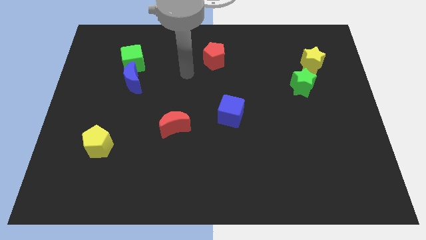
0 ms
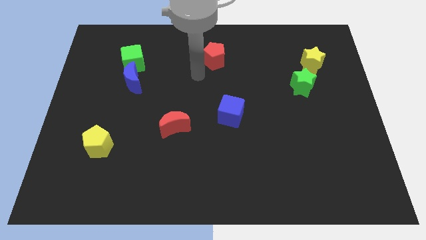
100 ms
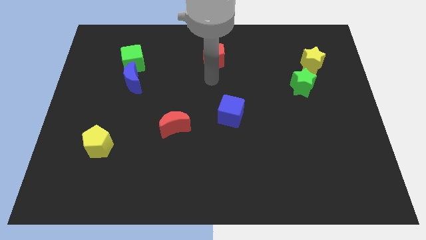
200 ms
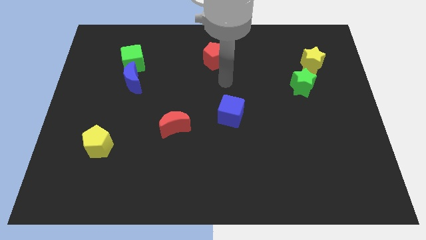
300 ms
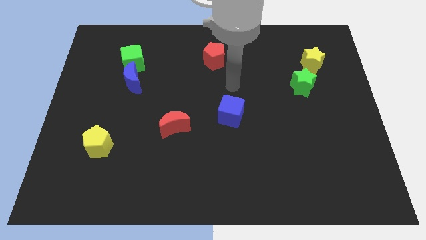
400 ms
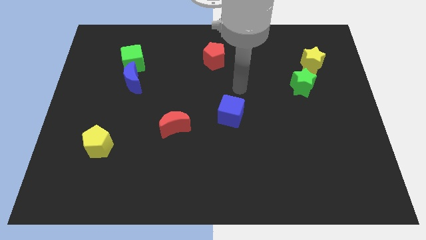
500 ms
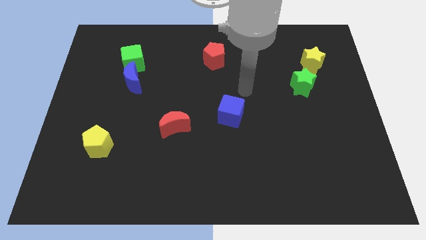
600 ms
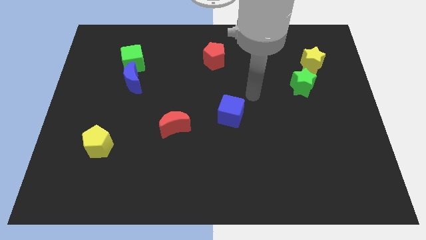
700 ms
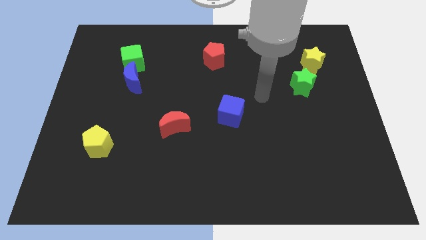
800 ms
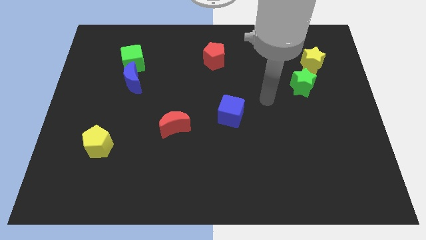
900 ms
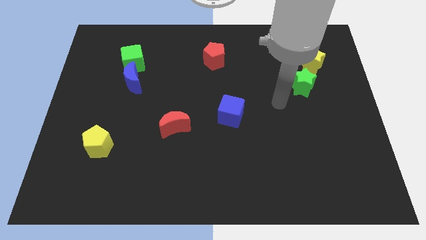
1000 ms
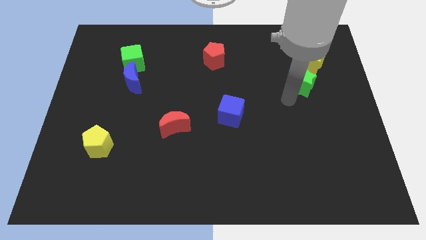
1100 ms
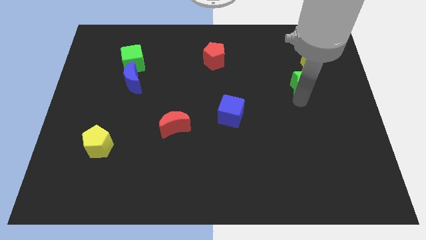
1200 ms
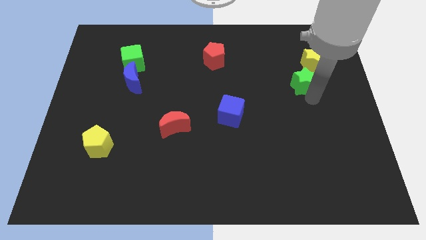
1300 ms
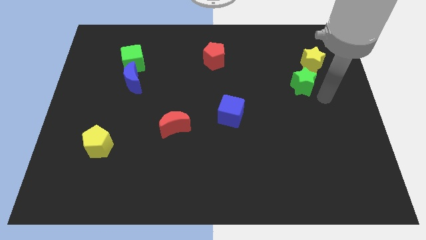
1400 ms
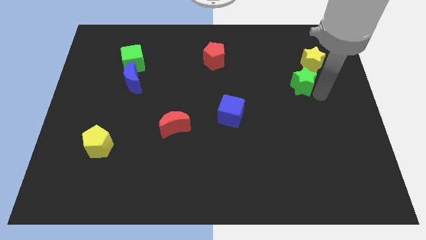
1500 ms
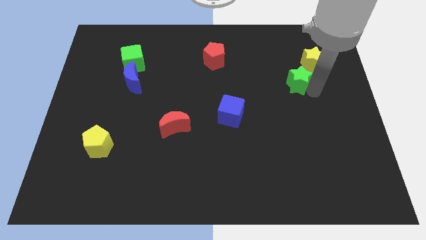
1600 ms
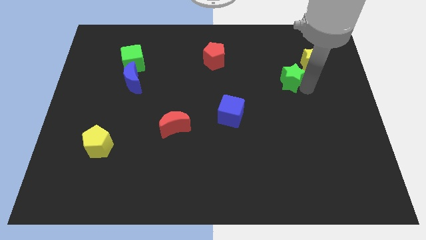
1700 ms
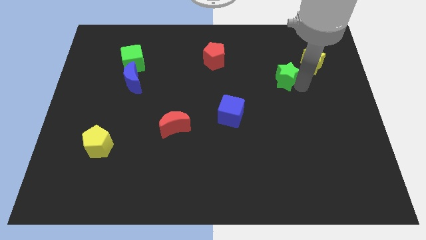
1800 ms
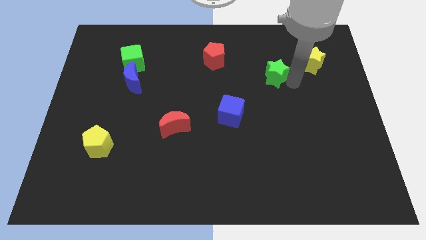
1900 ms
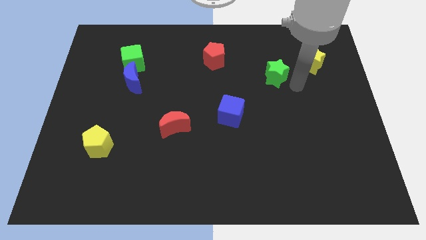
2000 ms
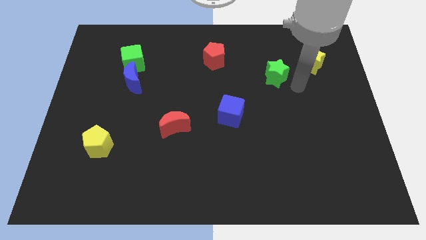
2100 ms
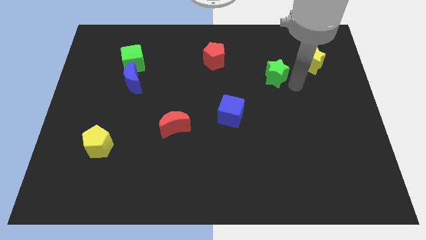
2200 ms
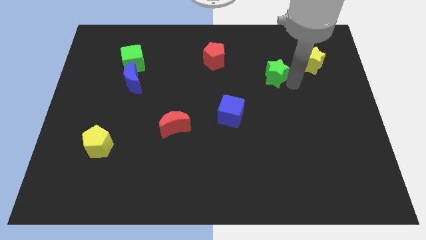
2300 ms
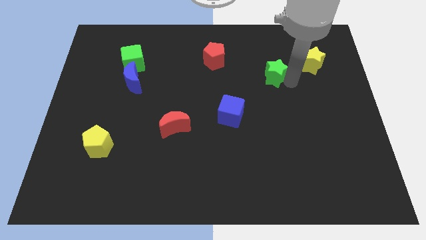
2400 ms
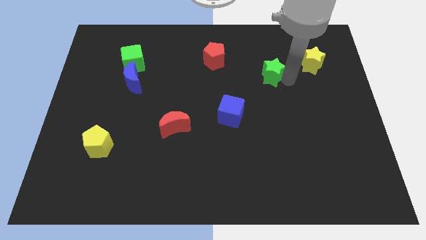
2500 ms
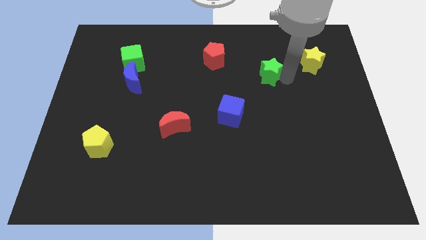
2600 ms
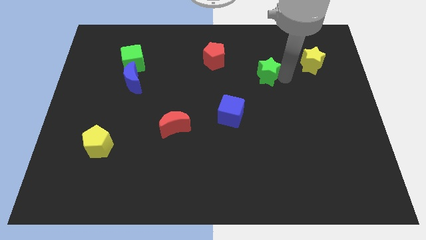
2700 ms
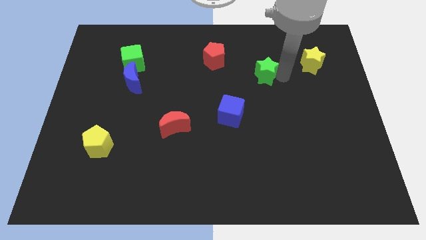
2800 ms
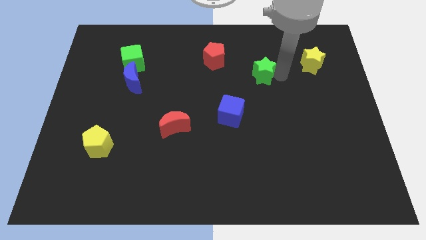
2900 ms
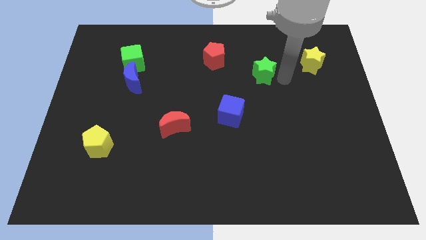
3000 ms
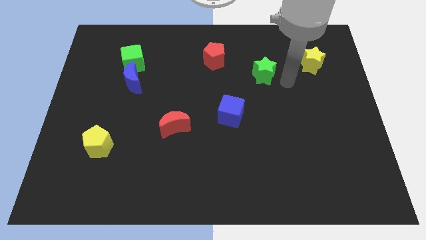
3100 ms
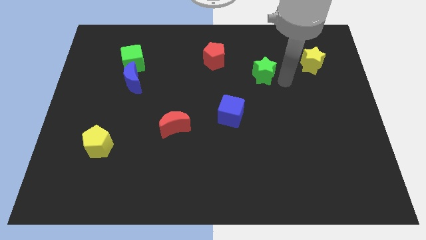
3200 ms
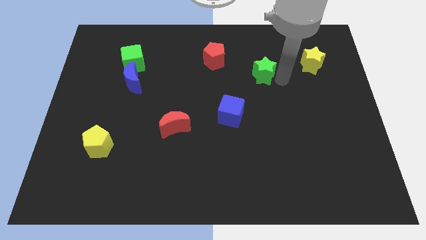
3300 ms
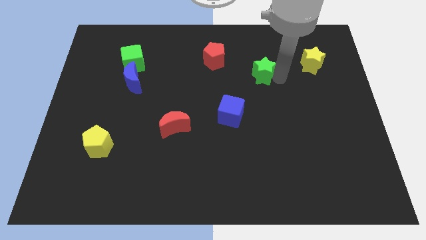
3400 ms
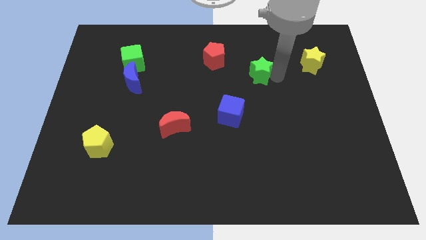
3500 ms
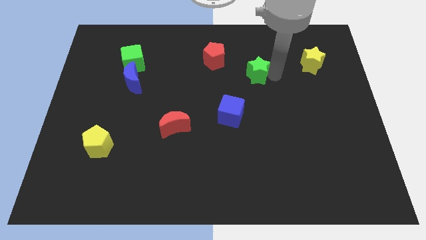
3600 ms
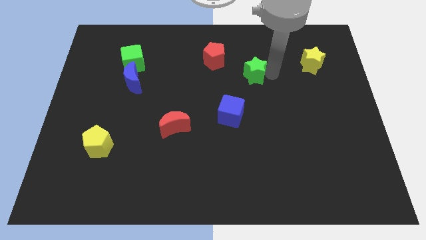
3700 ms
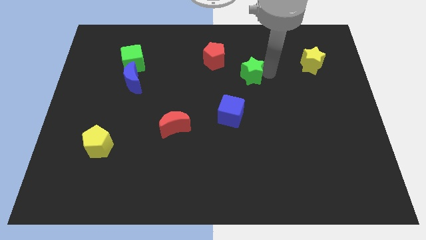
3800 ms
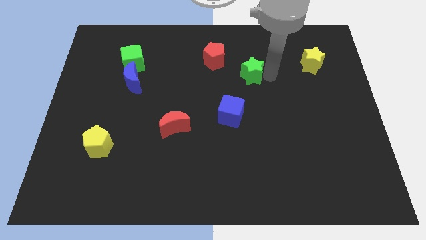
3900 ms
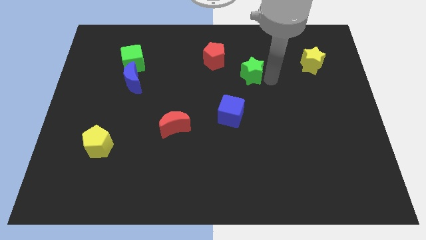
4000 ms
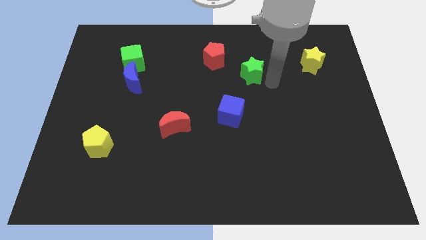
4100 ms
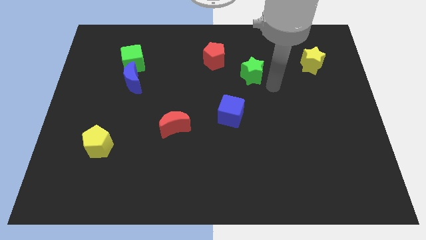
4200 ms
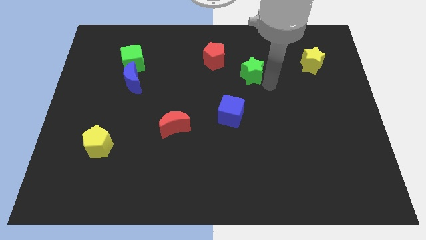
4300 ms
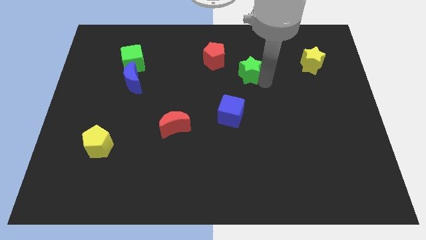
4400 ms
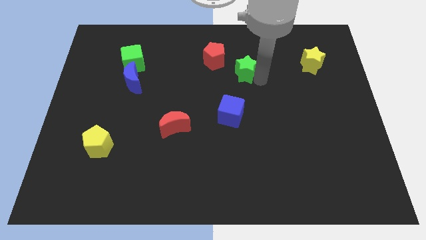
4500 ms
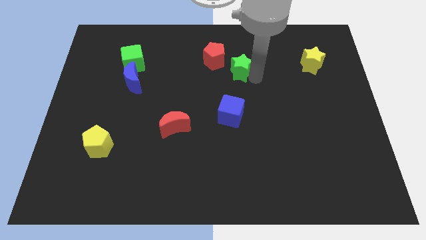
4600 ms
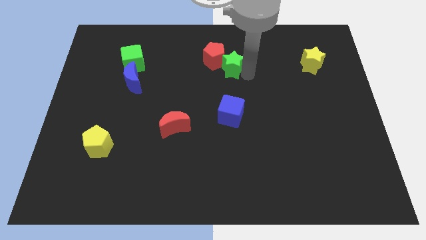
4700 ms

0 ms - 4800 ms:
put the green star next to the red pentagon

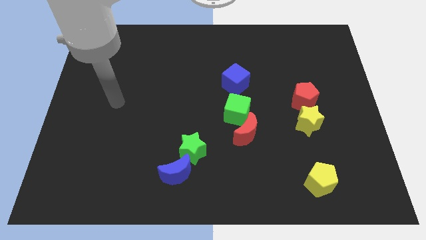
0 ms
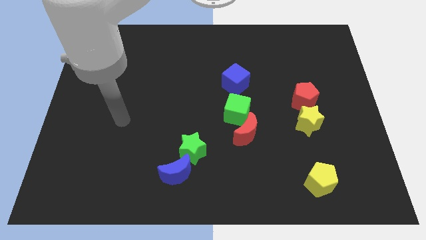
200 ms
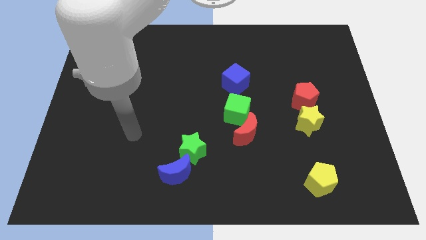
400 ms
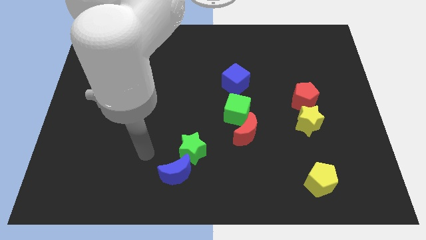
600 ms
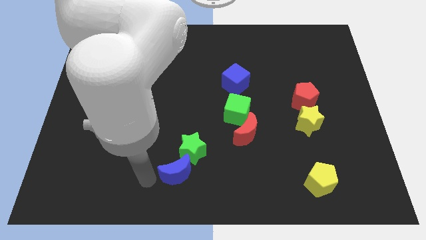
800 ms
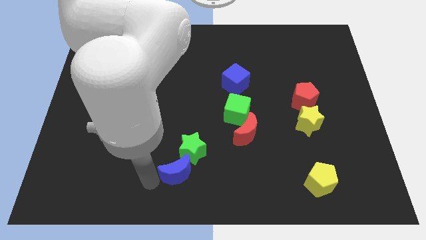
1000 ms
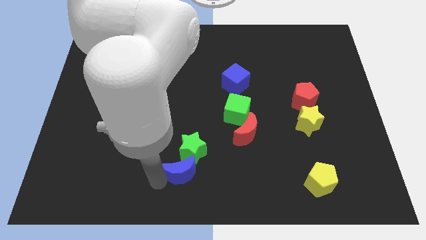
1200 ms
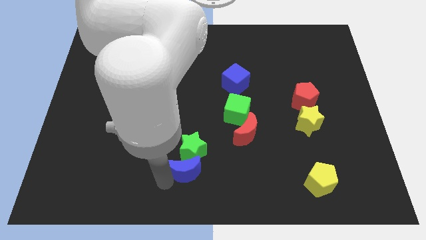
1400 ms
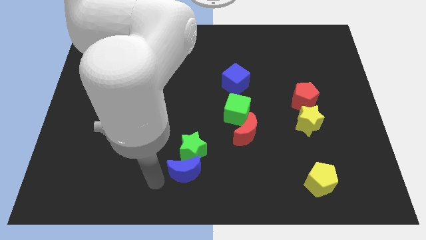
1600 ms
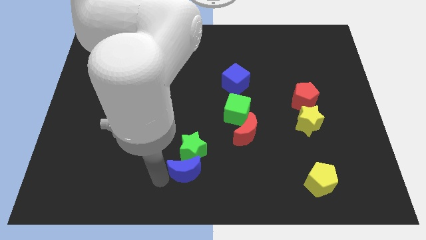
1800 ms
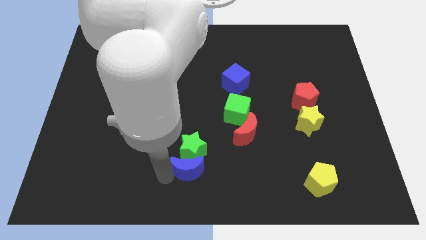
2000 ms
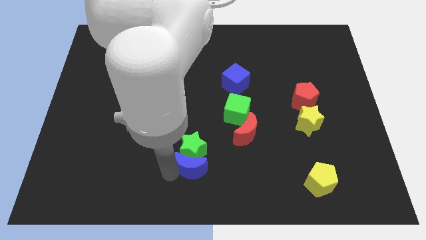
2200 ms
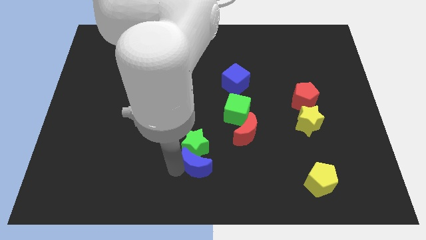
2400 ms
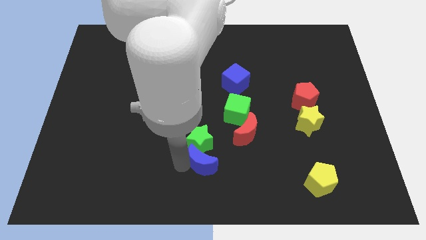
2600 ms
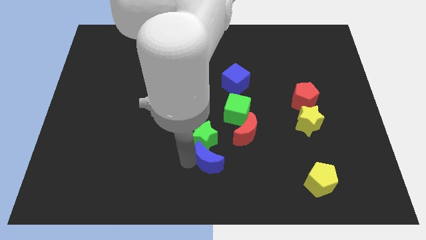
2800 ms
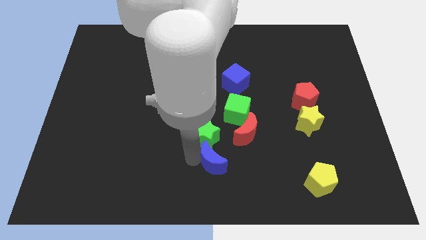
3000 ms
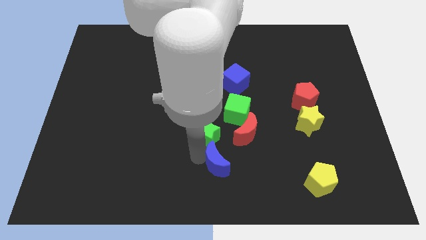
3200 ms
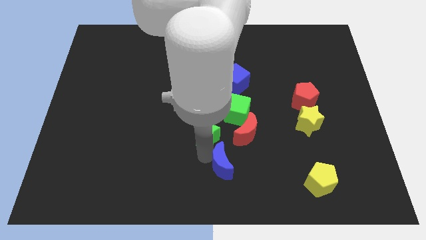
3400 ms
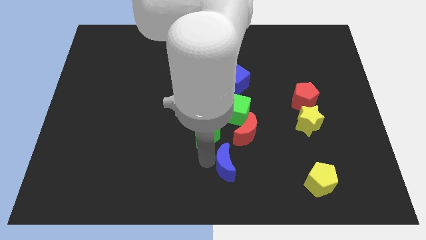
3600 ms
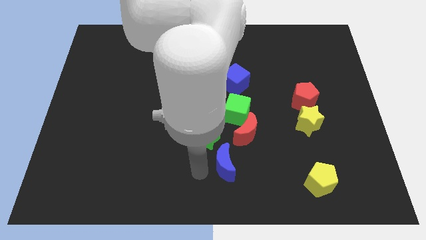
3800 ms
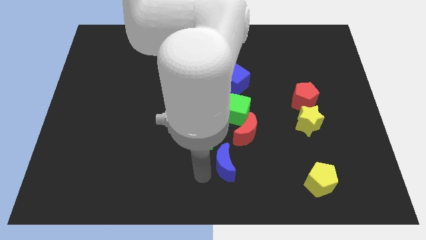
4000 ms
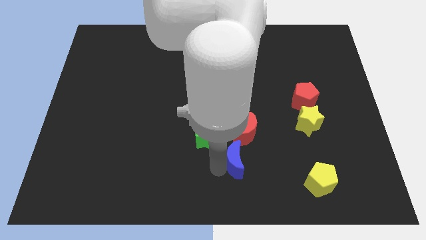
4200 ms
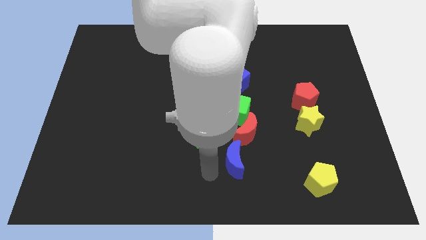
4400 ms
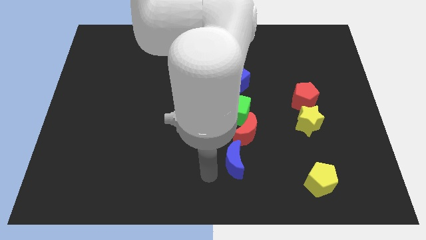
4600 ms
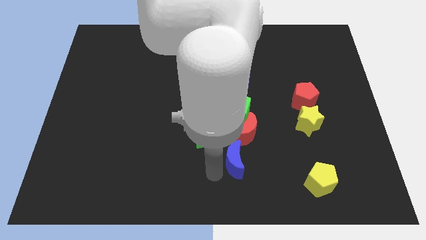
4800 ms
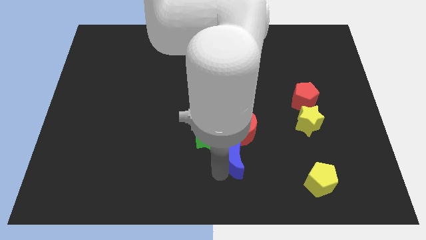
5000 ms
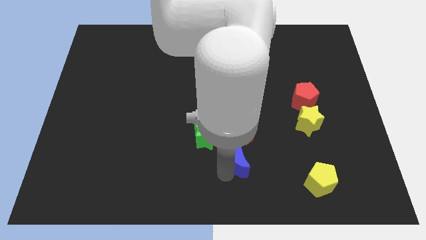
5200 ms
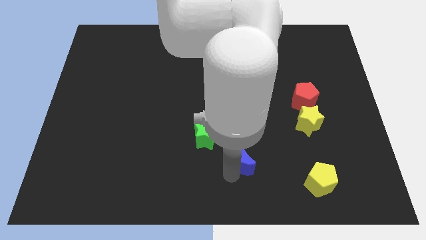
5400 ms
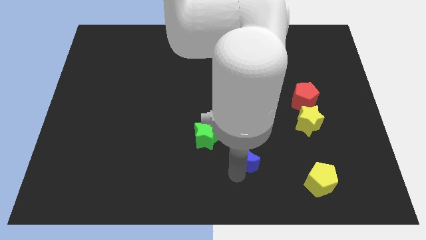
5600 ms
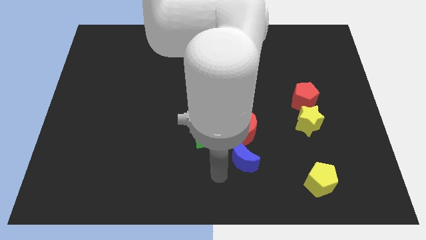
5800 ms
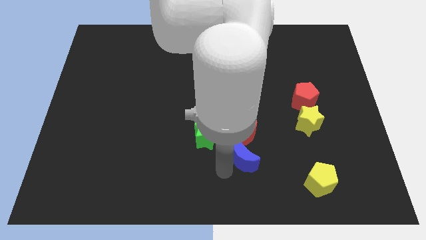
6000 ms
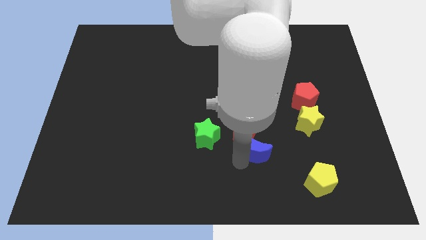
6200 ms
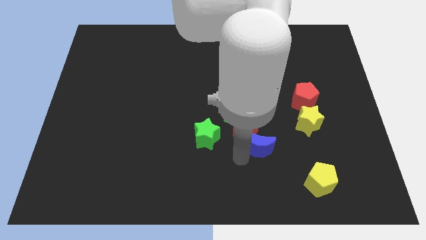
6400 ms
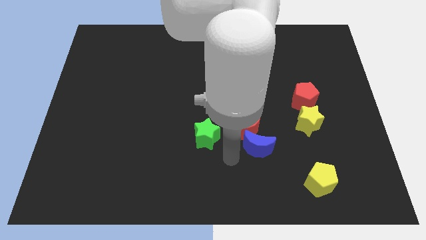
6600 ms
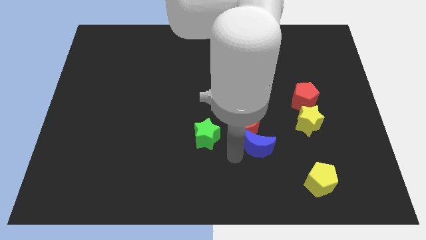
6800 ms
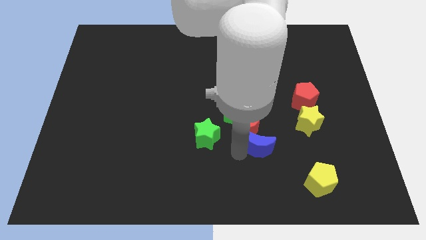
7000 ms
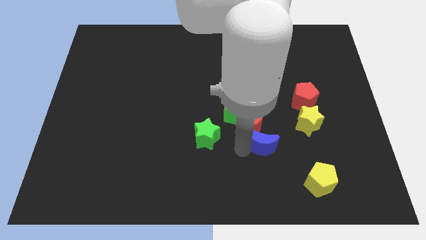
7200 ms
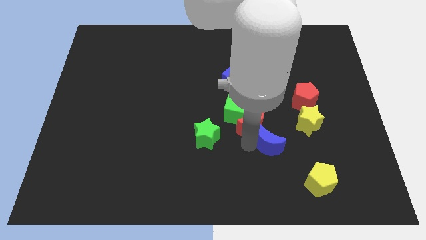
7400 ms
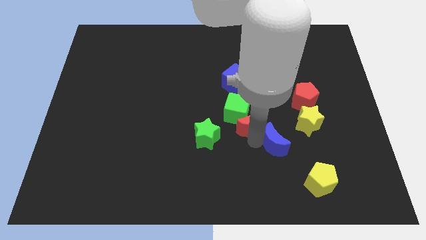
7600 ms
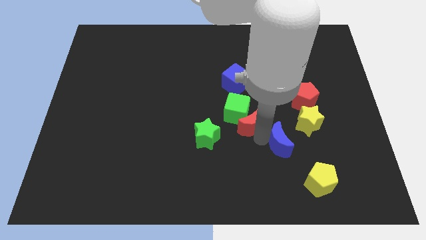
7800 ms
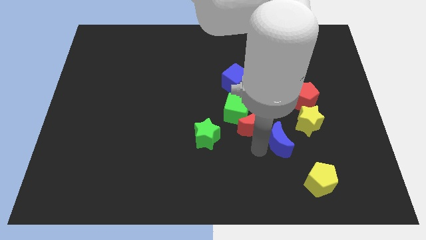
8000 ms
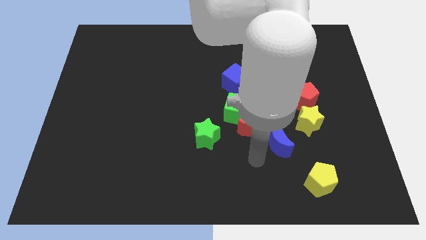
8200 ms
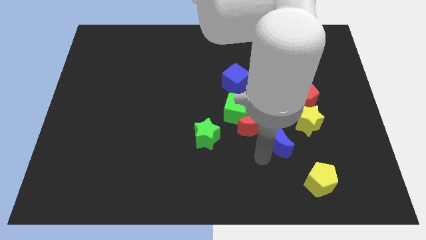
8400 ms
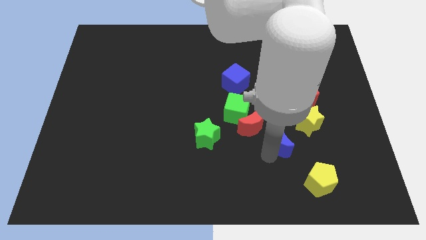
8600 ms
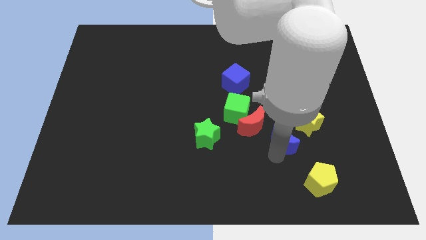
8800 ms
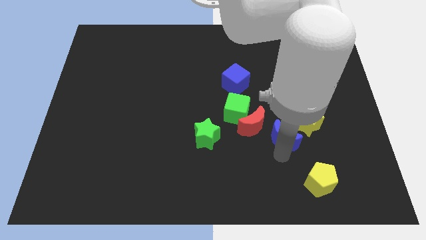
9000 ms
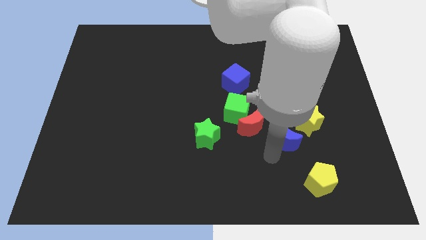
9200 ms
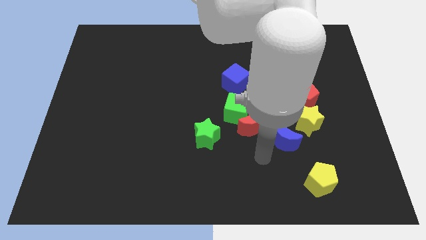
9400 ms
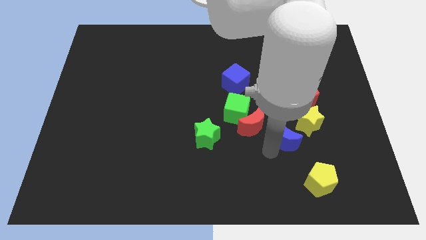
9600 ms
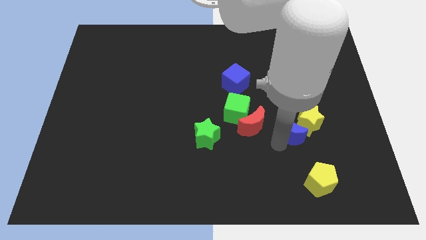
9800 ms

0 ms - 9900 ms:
push the blue moon to the yellow star
